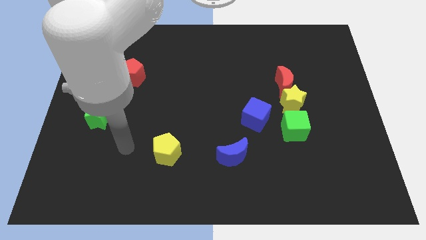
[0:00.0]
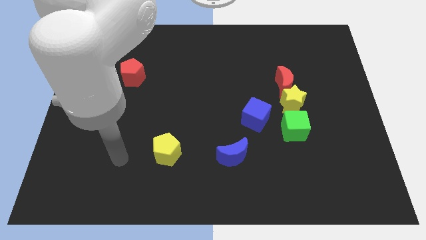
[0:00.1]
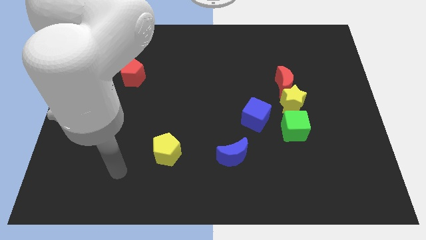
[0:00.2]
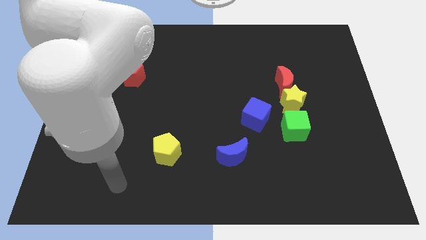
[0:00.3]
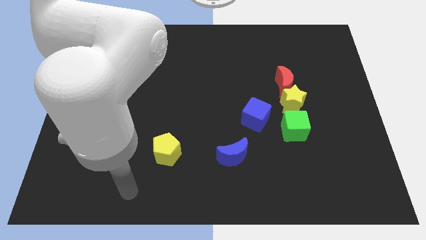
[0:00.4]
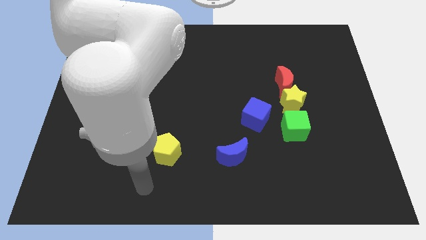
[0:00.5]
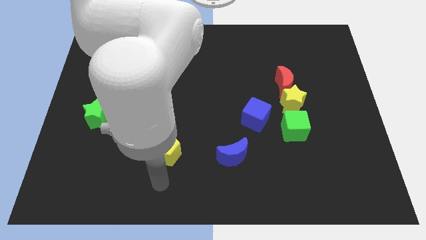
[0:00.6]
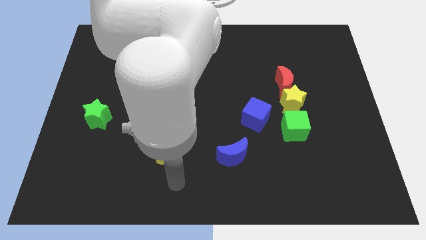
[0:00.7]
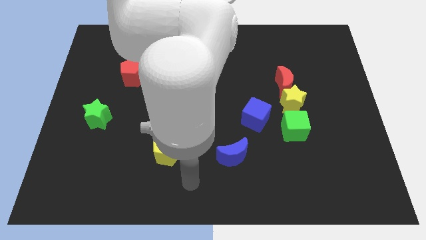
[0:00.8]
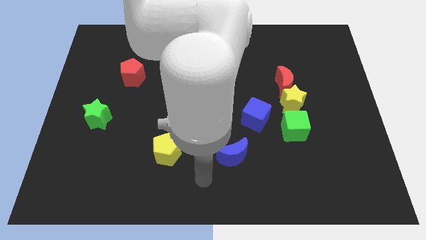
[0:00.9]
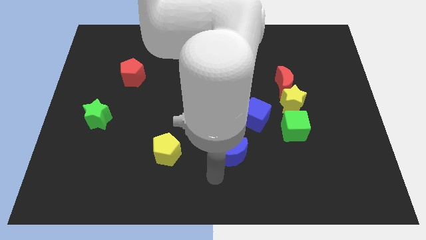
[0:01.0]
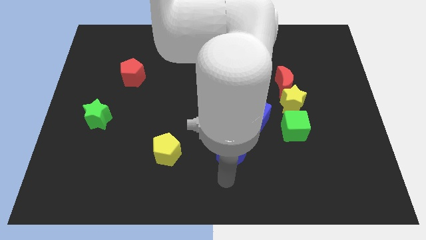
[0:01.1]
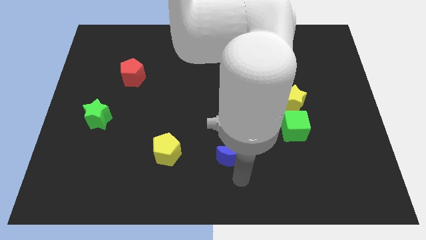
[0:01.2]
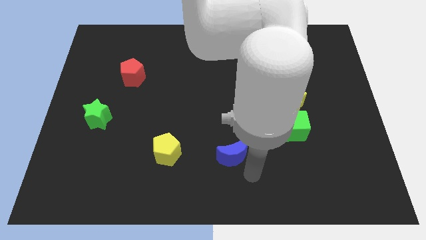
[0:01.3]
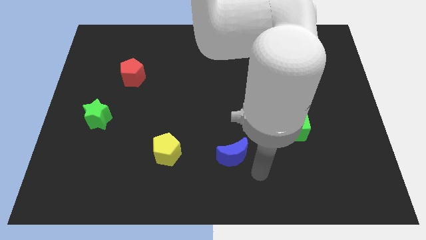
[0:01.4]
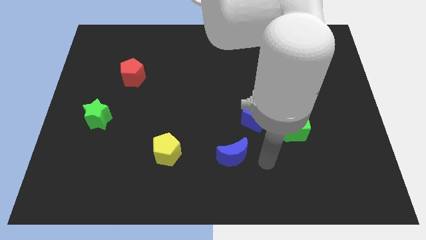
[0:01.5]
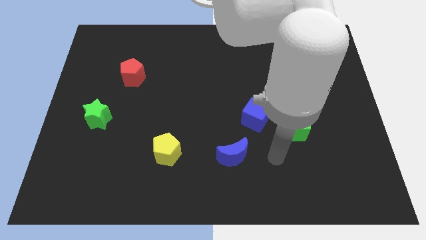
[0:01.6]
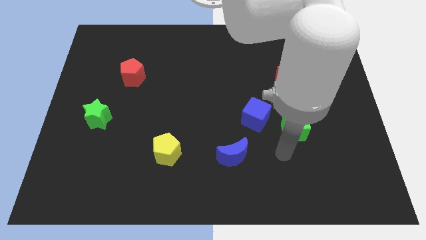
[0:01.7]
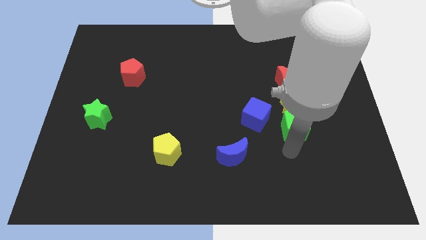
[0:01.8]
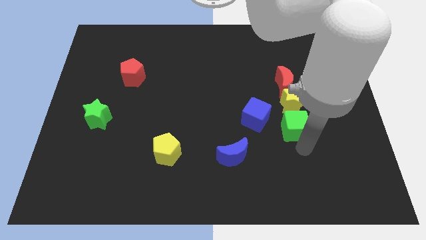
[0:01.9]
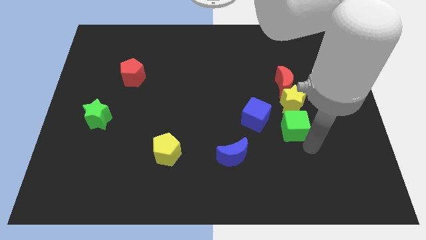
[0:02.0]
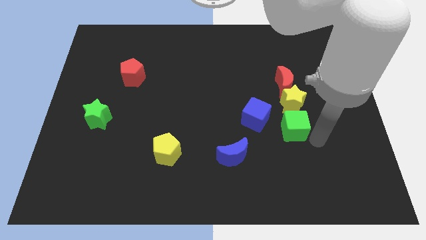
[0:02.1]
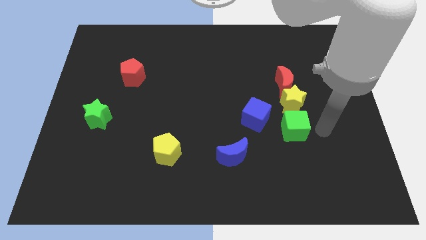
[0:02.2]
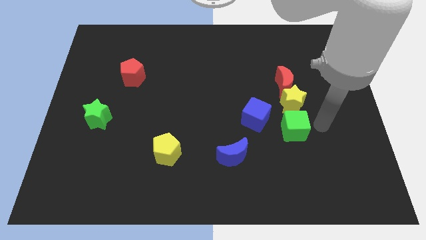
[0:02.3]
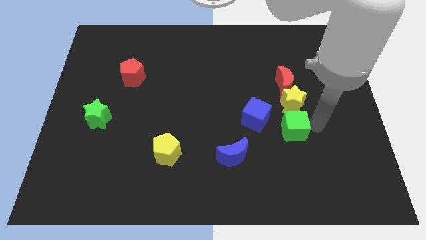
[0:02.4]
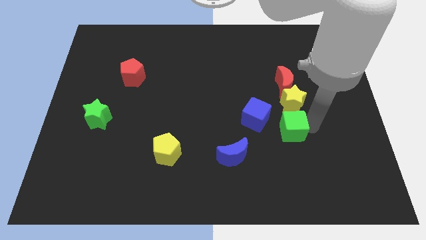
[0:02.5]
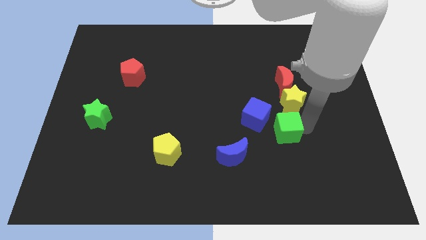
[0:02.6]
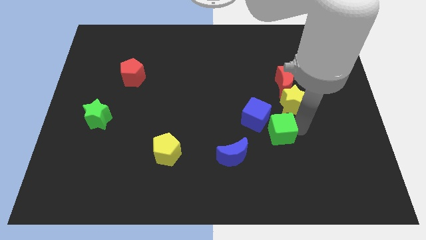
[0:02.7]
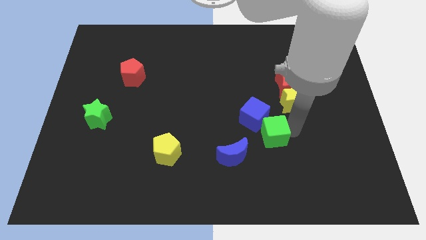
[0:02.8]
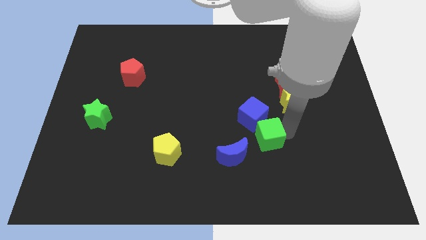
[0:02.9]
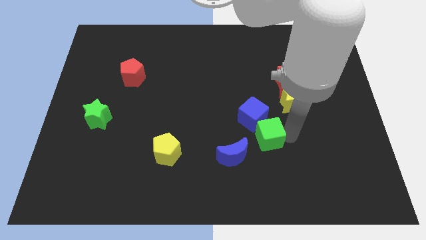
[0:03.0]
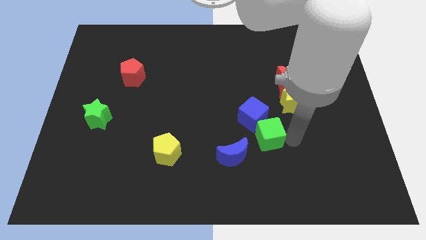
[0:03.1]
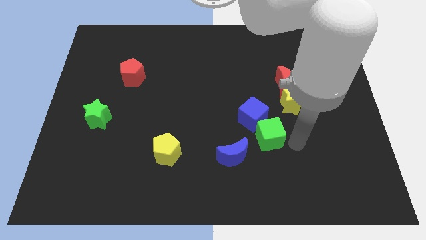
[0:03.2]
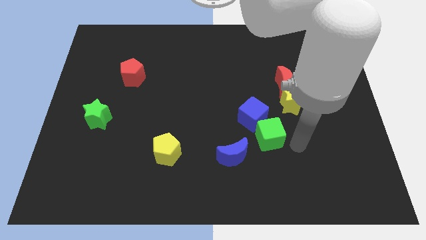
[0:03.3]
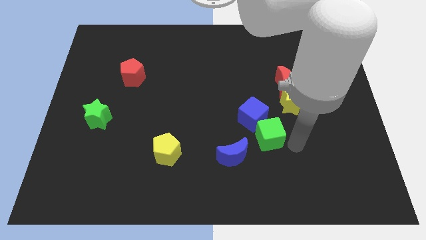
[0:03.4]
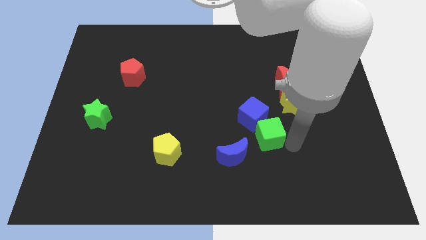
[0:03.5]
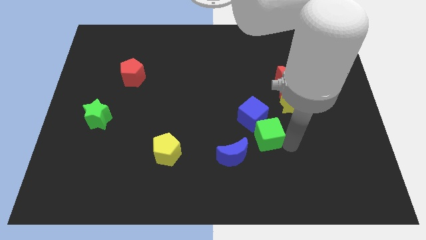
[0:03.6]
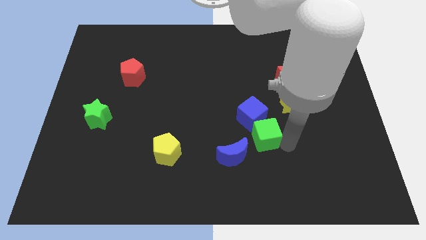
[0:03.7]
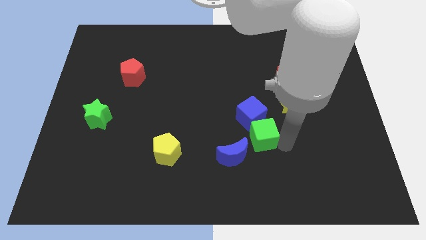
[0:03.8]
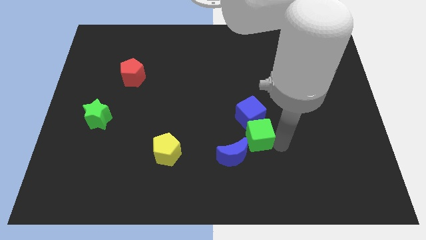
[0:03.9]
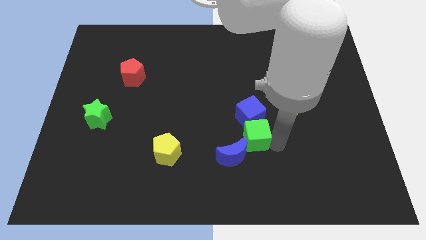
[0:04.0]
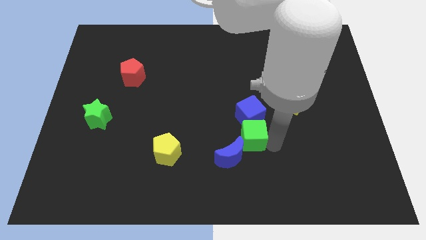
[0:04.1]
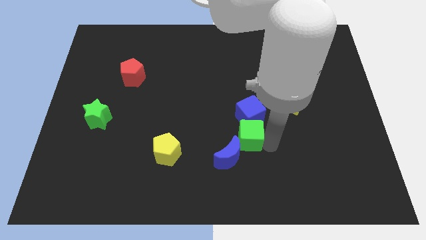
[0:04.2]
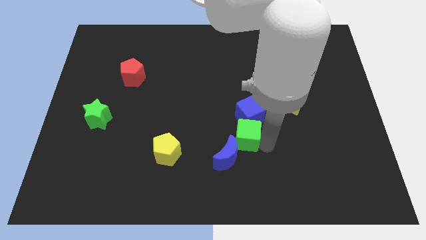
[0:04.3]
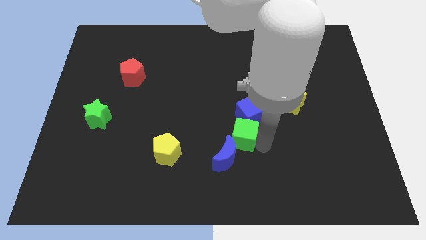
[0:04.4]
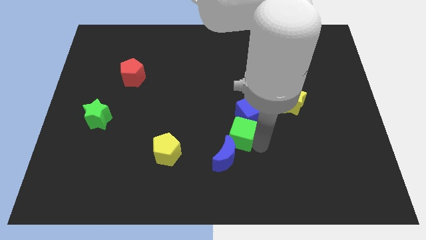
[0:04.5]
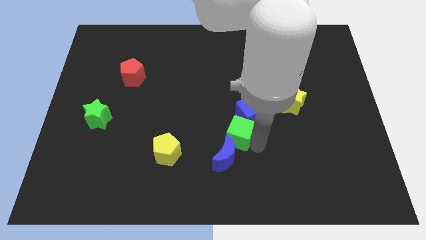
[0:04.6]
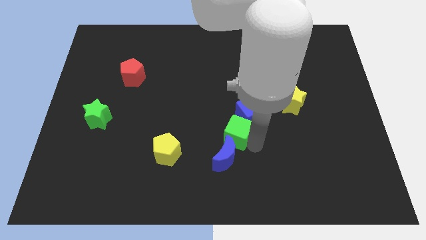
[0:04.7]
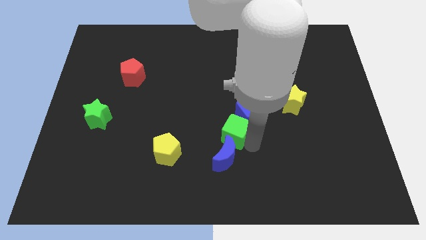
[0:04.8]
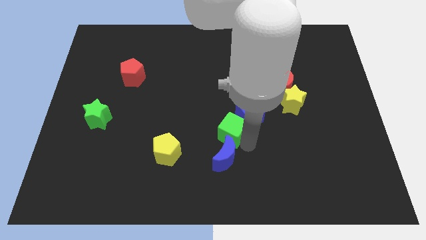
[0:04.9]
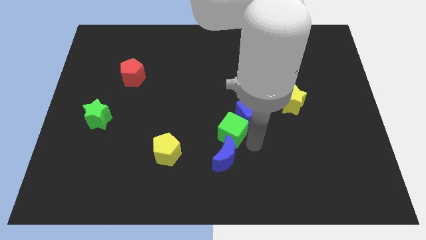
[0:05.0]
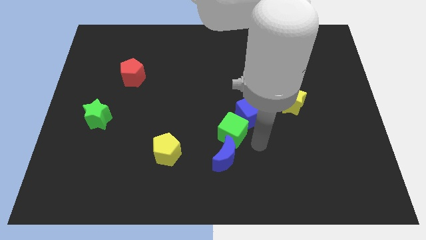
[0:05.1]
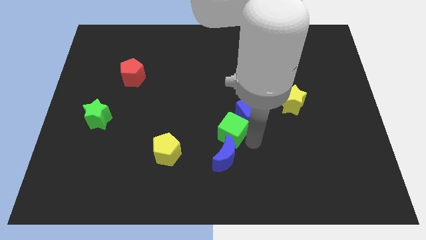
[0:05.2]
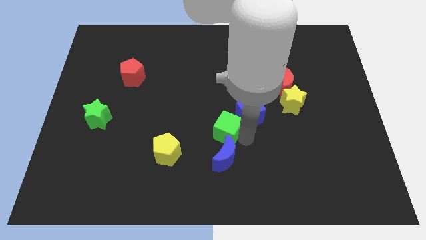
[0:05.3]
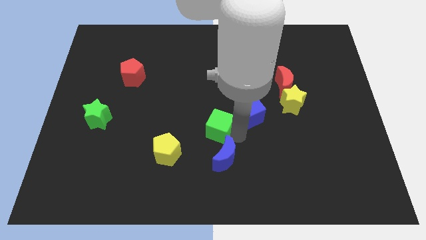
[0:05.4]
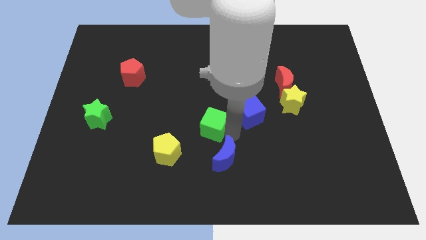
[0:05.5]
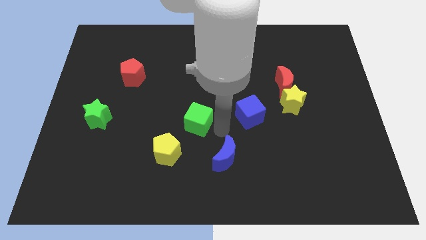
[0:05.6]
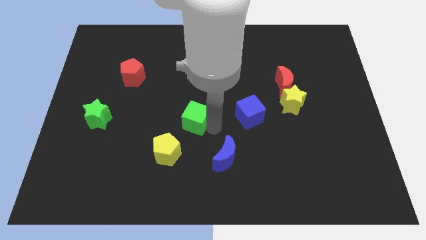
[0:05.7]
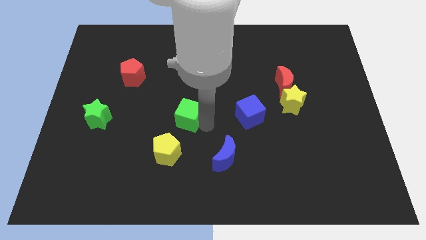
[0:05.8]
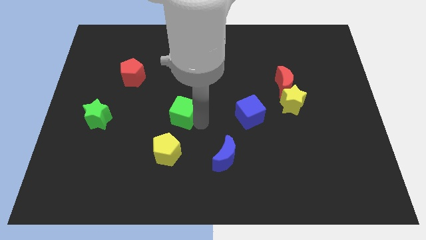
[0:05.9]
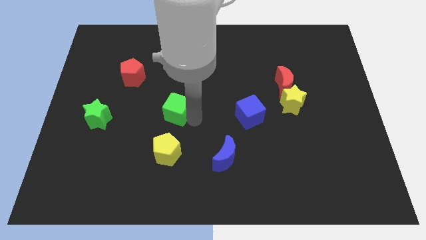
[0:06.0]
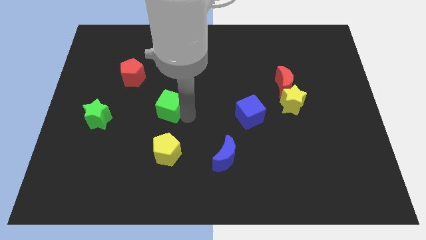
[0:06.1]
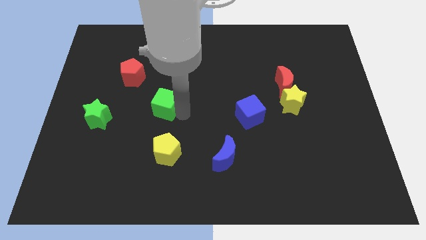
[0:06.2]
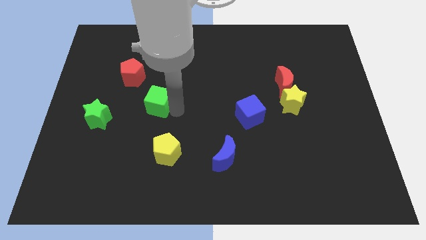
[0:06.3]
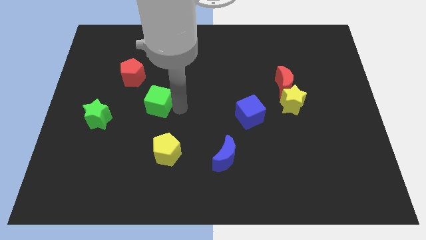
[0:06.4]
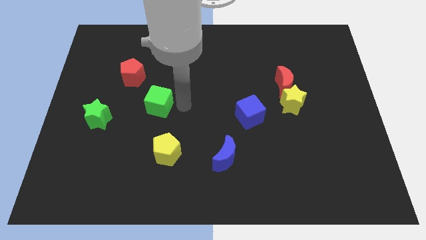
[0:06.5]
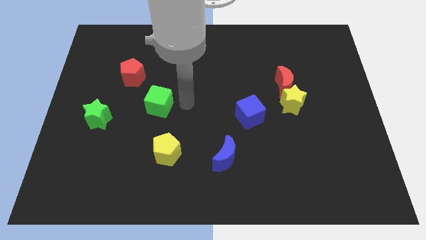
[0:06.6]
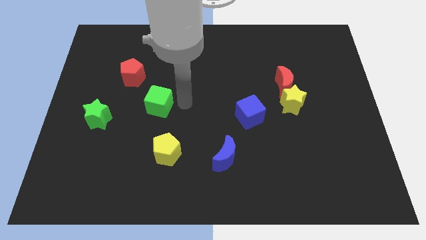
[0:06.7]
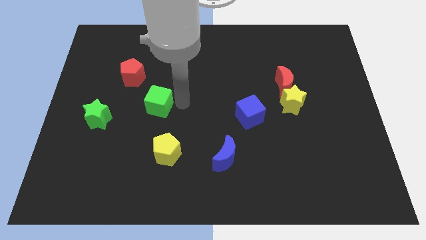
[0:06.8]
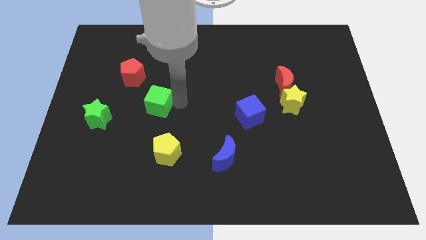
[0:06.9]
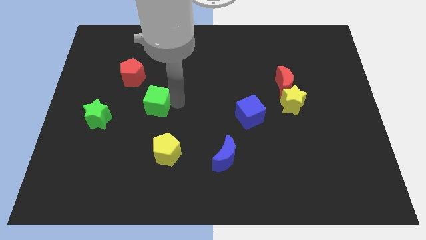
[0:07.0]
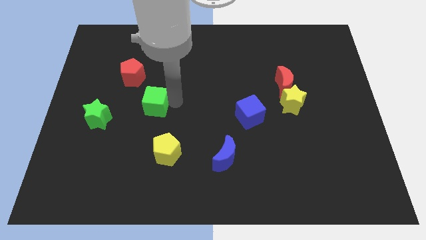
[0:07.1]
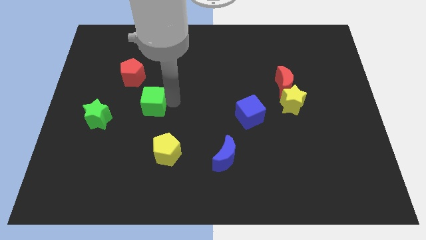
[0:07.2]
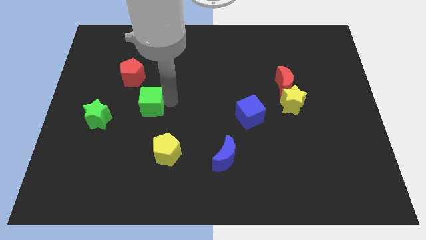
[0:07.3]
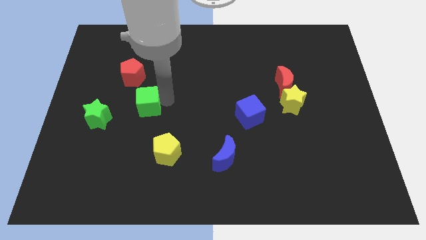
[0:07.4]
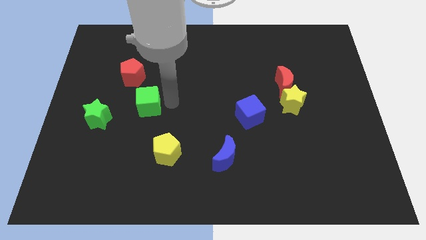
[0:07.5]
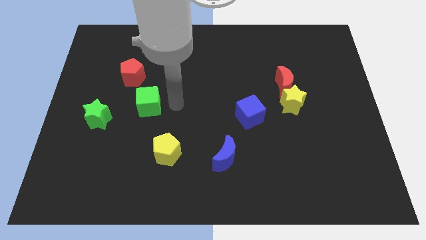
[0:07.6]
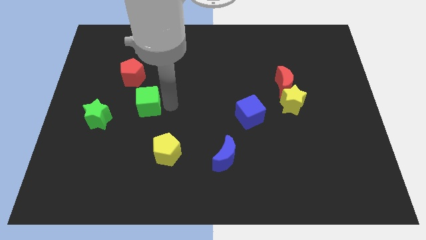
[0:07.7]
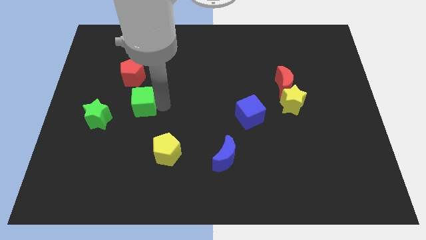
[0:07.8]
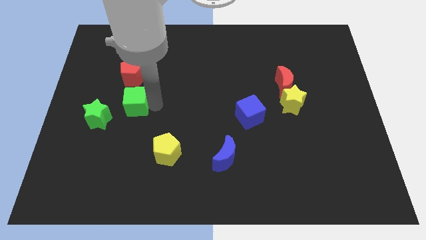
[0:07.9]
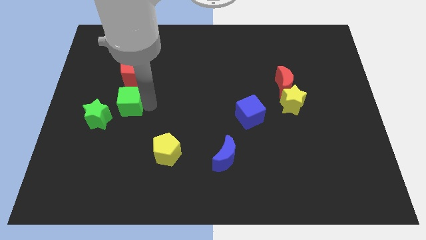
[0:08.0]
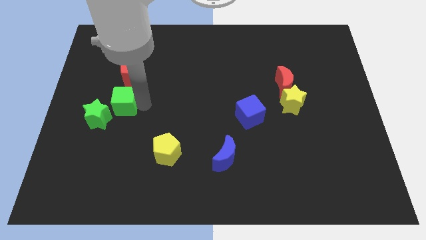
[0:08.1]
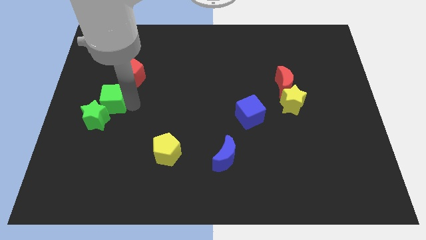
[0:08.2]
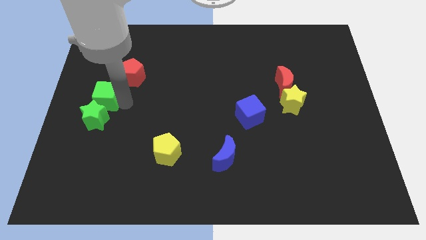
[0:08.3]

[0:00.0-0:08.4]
move the green cube to the left side of the board
